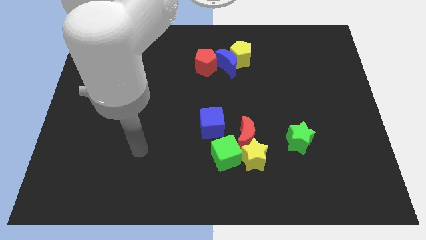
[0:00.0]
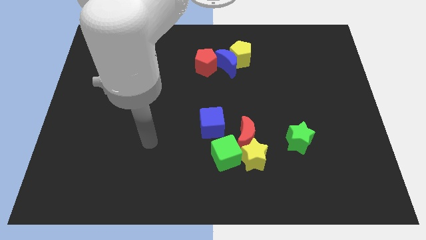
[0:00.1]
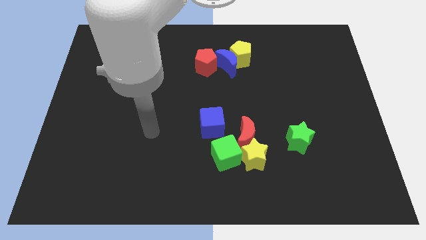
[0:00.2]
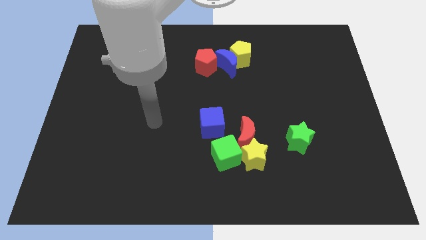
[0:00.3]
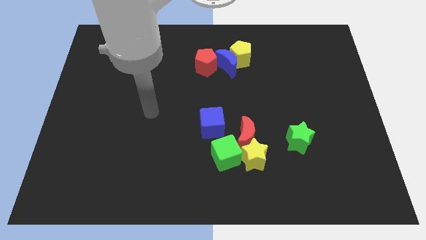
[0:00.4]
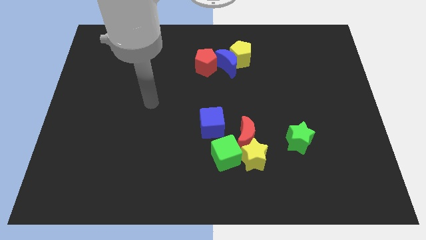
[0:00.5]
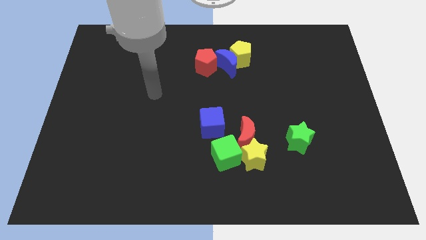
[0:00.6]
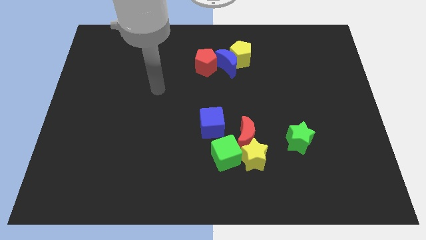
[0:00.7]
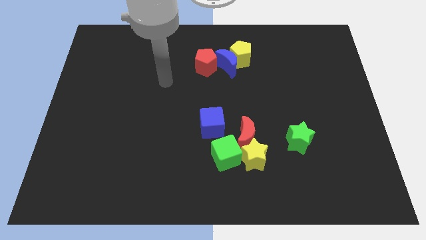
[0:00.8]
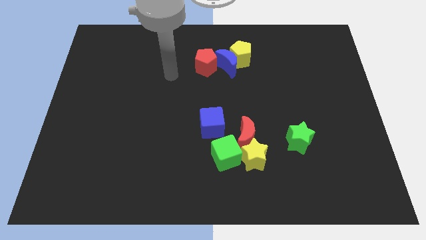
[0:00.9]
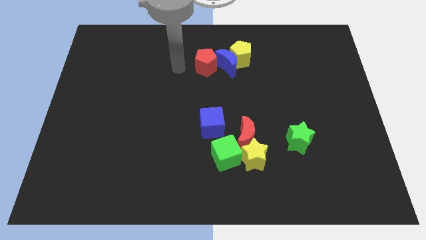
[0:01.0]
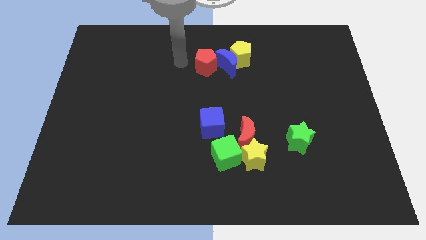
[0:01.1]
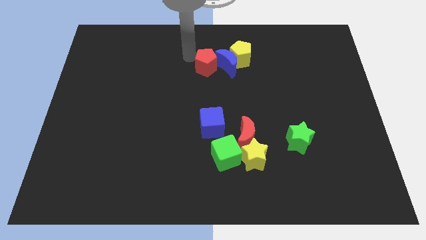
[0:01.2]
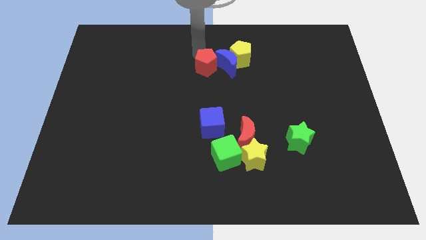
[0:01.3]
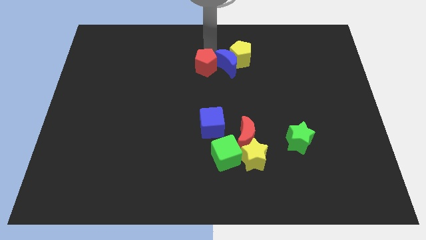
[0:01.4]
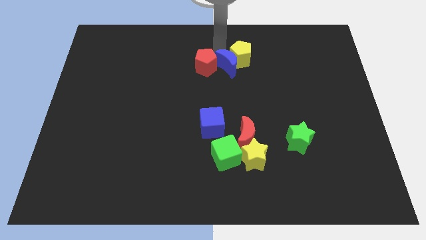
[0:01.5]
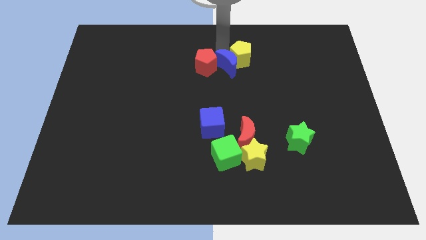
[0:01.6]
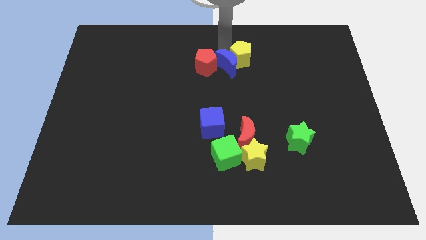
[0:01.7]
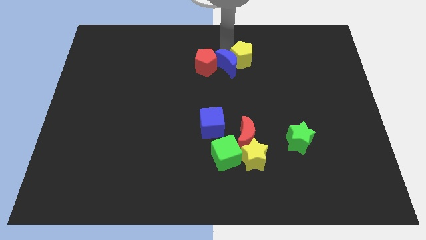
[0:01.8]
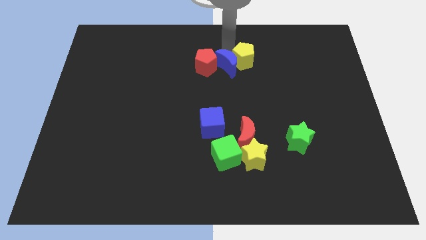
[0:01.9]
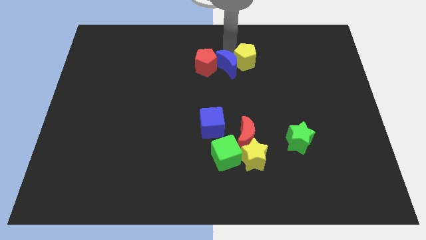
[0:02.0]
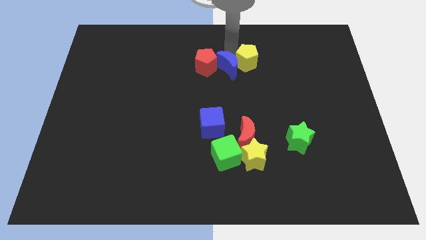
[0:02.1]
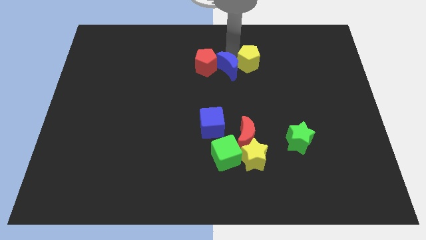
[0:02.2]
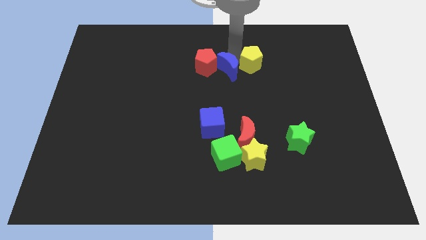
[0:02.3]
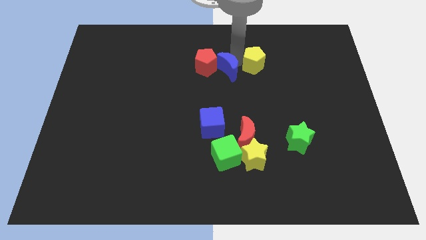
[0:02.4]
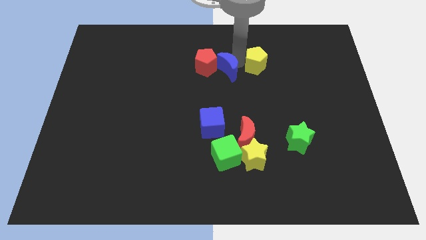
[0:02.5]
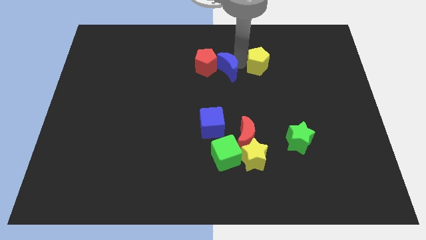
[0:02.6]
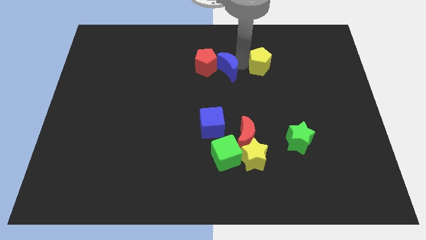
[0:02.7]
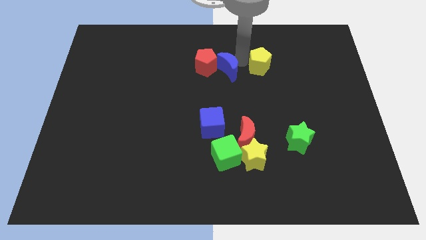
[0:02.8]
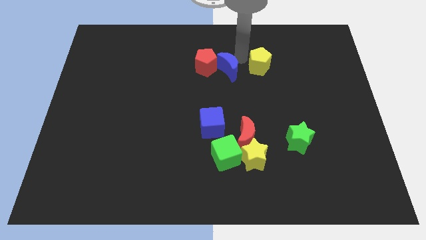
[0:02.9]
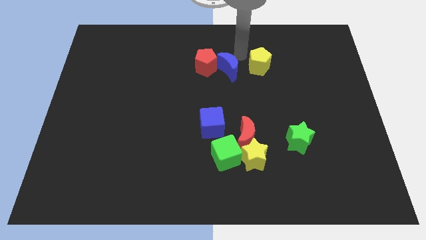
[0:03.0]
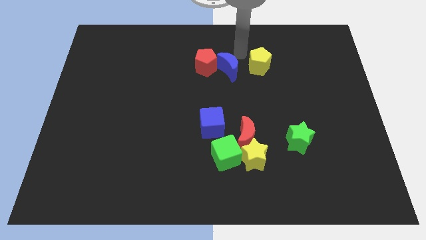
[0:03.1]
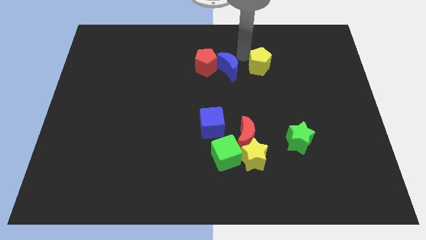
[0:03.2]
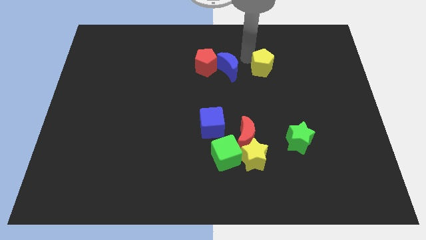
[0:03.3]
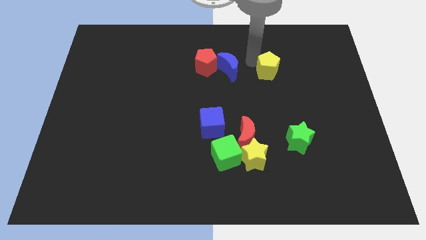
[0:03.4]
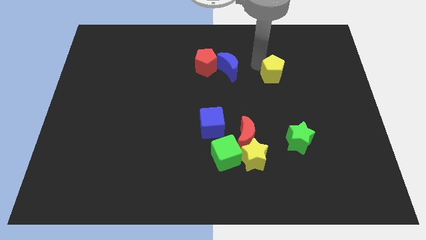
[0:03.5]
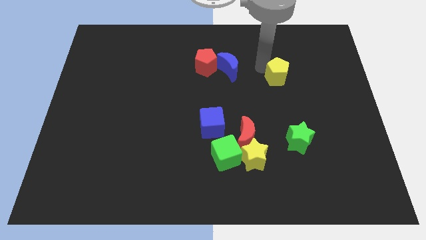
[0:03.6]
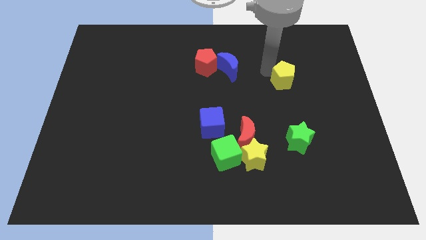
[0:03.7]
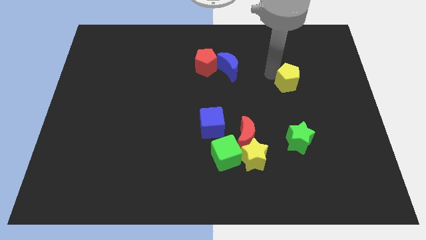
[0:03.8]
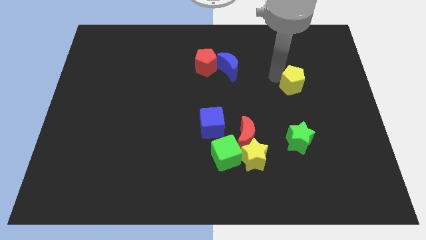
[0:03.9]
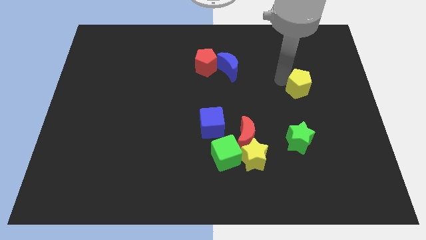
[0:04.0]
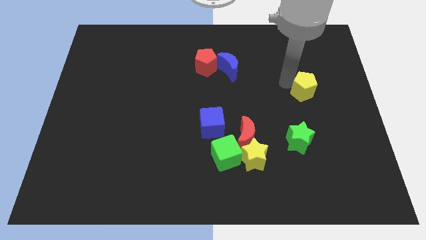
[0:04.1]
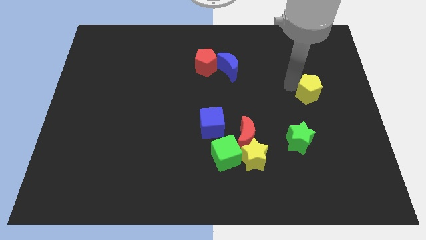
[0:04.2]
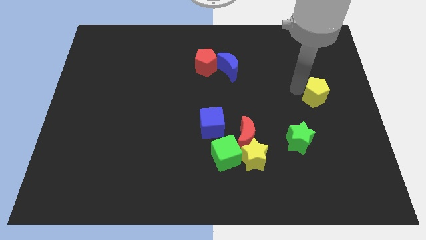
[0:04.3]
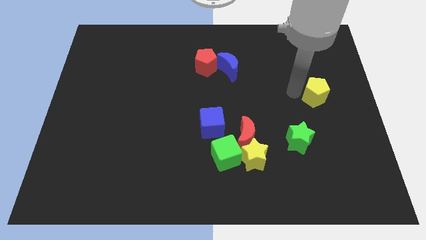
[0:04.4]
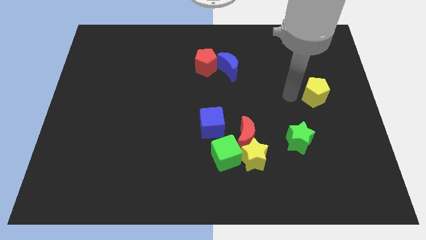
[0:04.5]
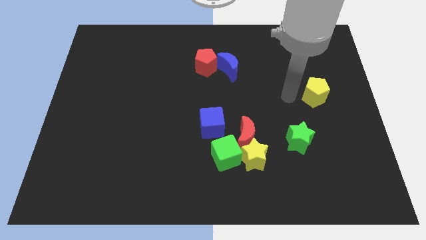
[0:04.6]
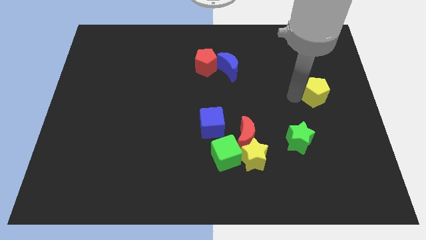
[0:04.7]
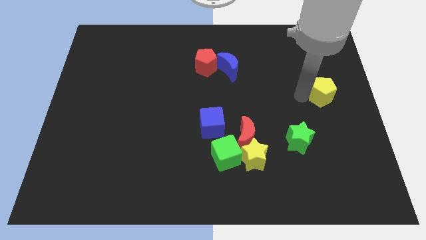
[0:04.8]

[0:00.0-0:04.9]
move the yellow pentagon to the center right

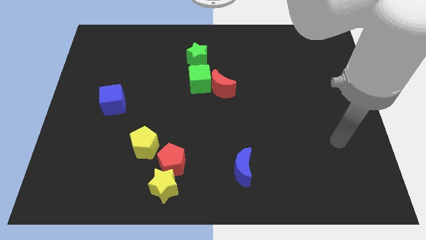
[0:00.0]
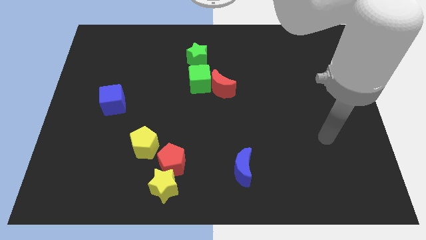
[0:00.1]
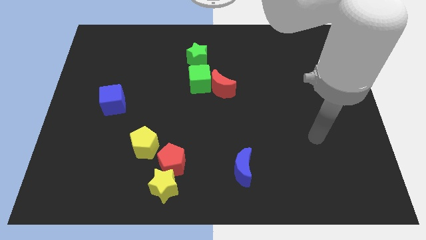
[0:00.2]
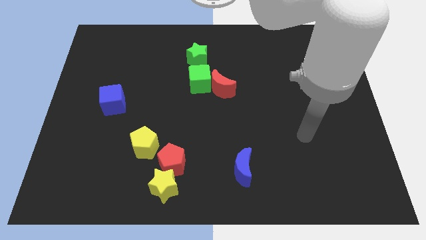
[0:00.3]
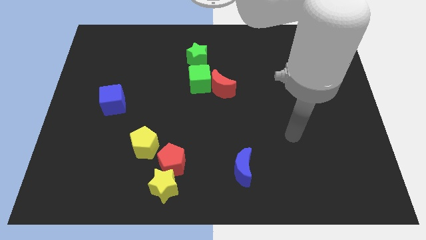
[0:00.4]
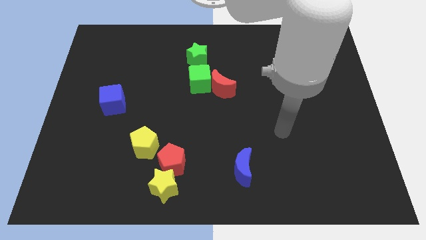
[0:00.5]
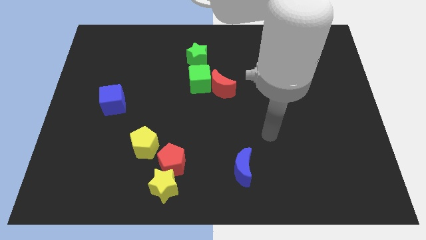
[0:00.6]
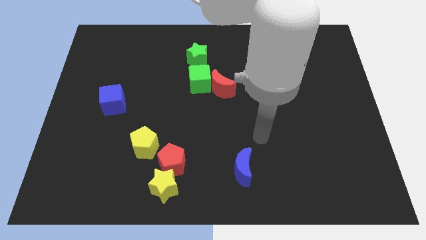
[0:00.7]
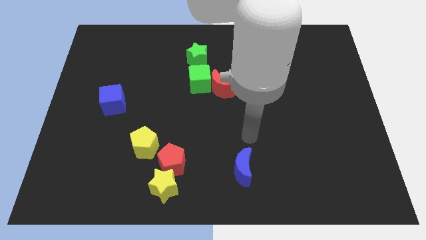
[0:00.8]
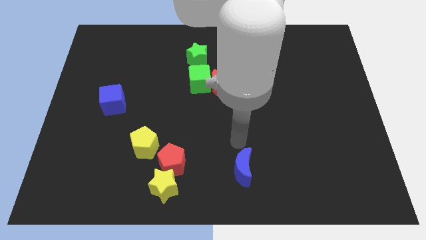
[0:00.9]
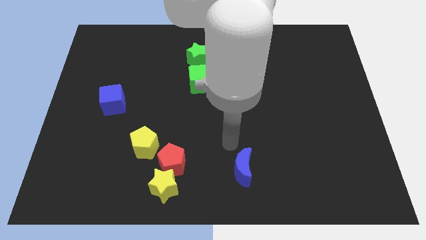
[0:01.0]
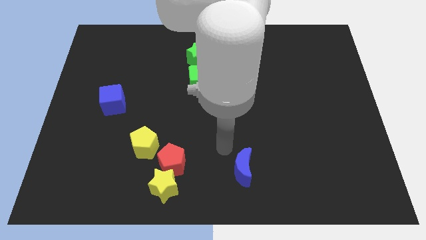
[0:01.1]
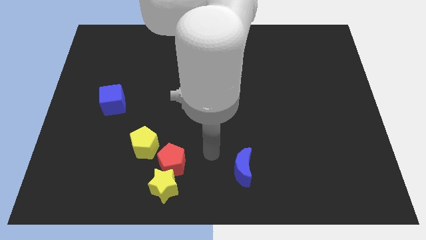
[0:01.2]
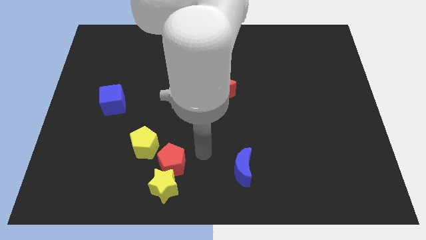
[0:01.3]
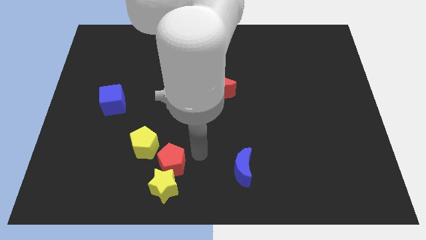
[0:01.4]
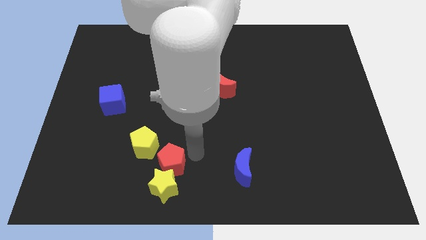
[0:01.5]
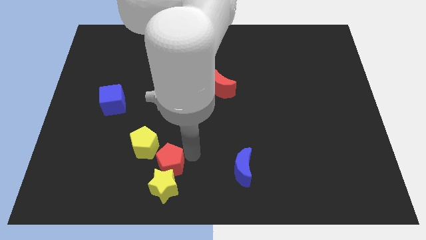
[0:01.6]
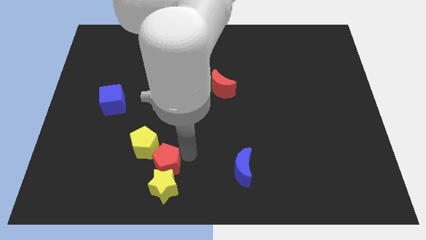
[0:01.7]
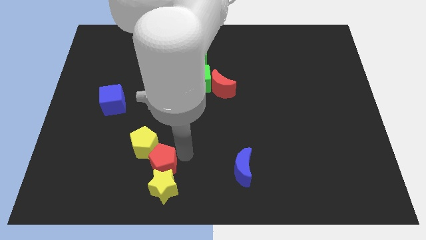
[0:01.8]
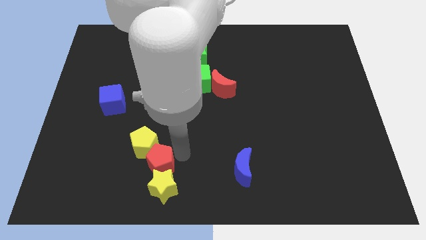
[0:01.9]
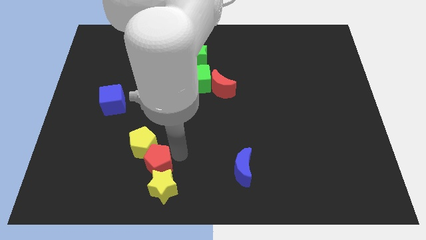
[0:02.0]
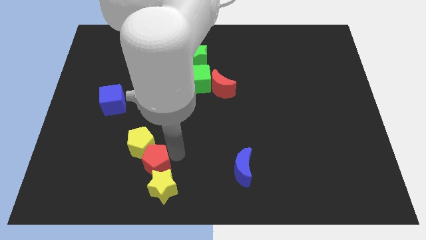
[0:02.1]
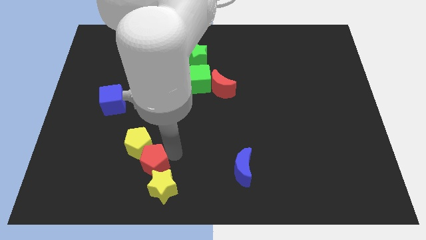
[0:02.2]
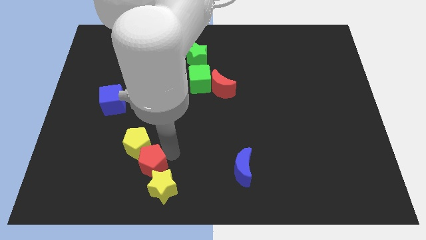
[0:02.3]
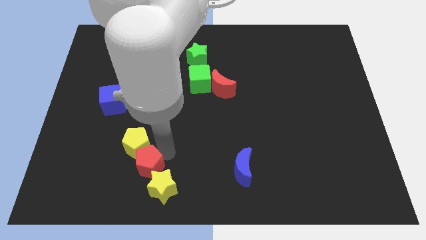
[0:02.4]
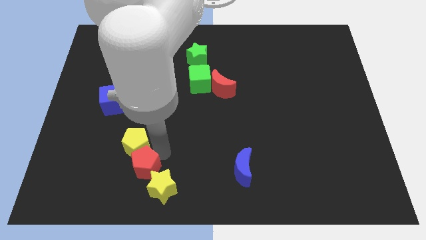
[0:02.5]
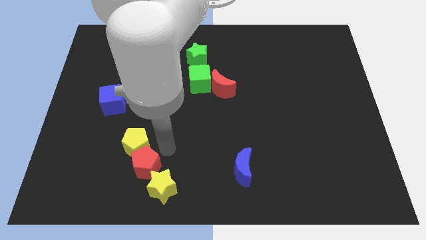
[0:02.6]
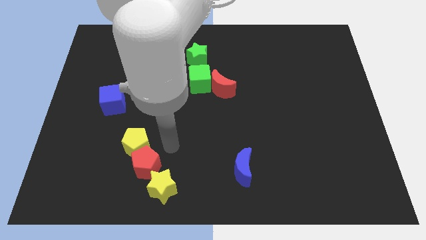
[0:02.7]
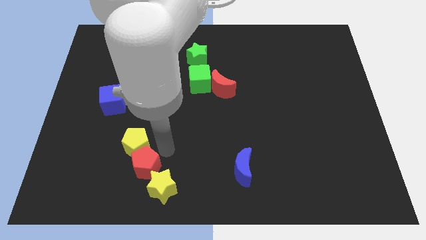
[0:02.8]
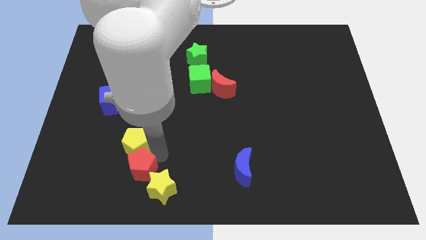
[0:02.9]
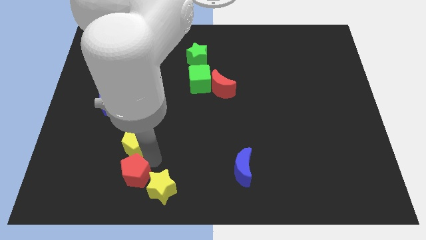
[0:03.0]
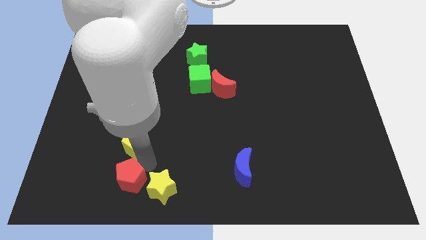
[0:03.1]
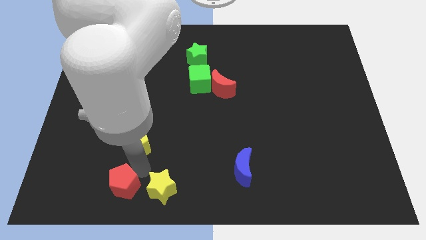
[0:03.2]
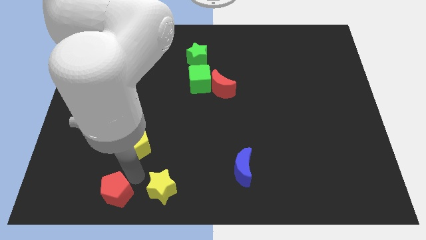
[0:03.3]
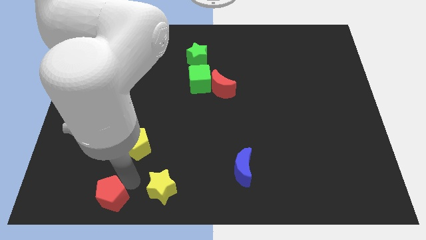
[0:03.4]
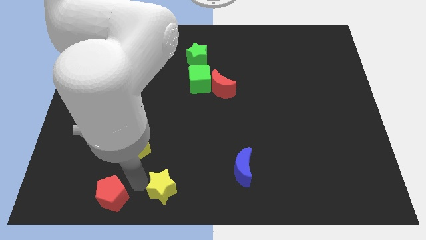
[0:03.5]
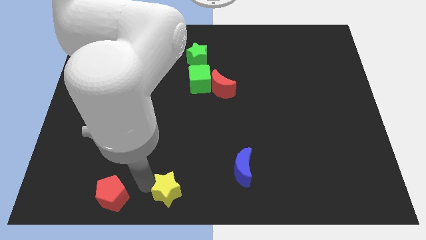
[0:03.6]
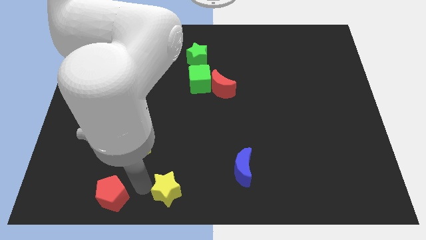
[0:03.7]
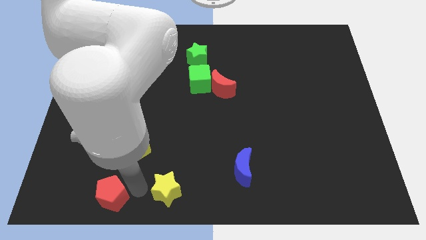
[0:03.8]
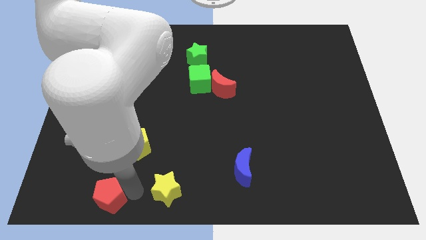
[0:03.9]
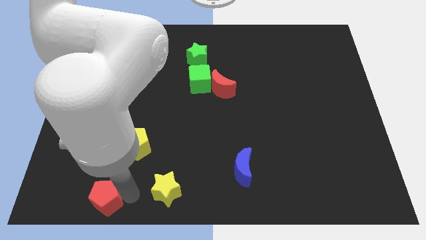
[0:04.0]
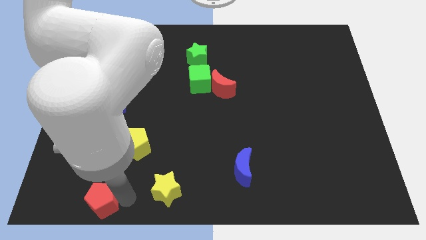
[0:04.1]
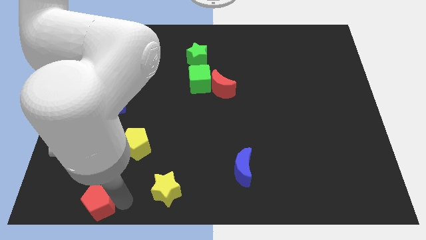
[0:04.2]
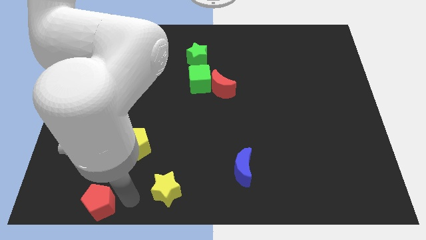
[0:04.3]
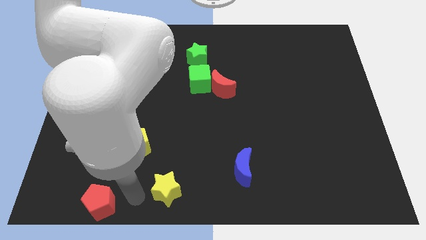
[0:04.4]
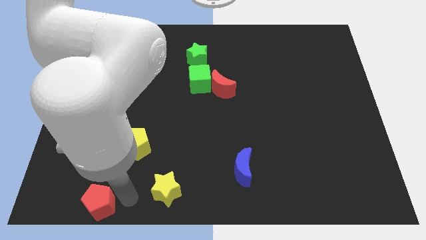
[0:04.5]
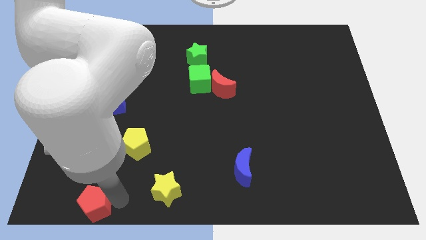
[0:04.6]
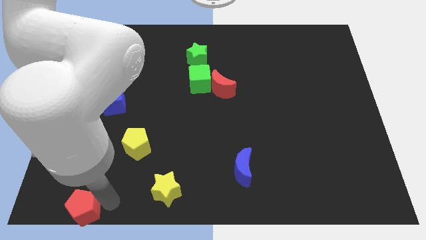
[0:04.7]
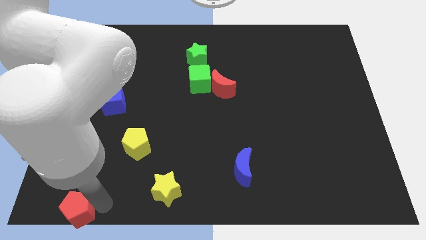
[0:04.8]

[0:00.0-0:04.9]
push the red pentagon to the bottom left corner
